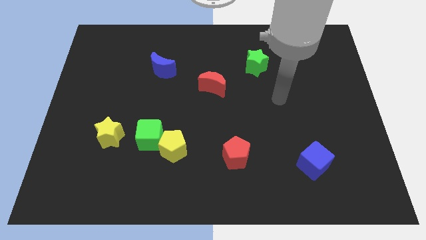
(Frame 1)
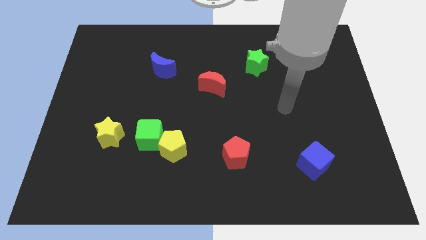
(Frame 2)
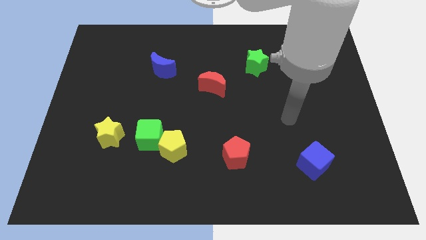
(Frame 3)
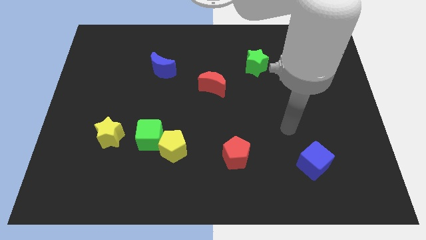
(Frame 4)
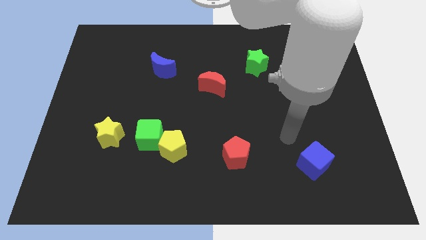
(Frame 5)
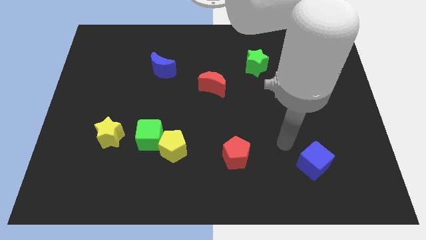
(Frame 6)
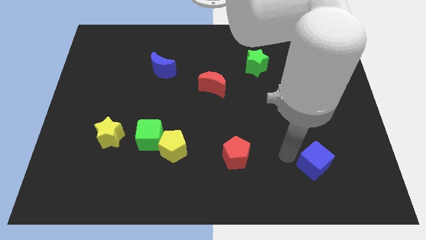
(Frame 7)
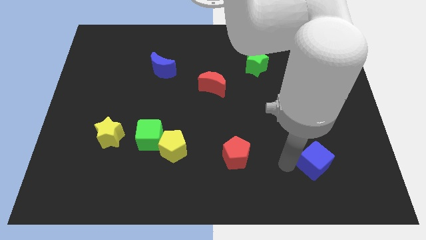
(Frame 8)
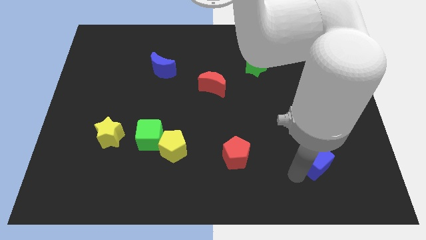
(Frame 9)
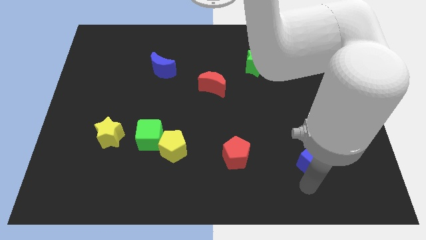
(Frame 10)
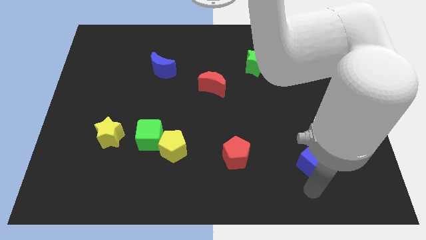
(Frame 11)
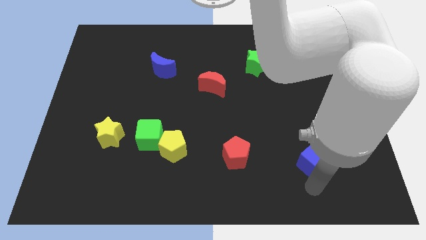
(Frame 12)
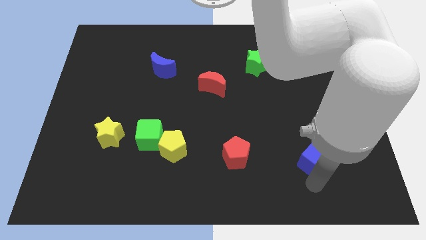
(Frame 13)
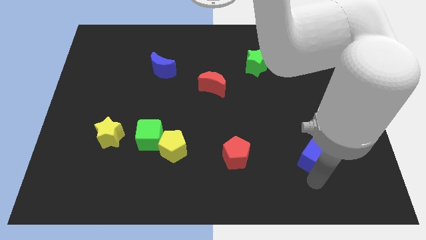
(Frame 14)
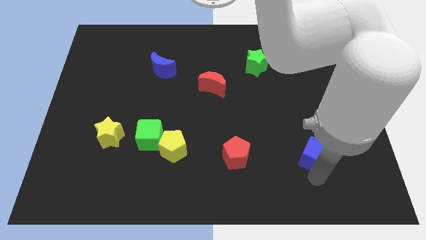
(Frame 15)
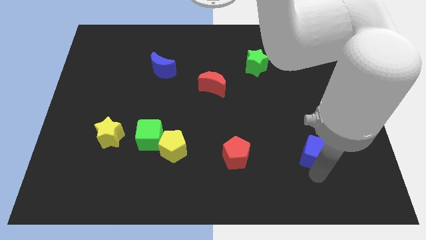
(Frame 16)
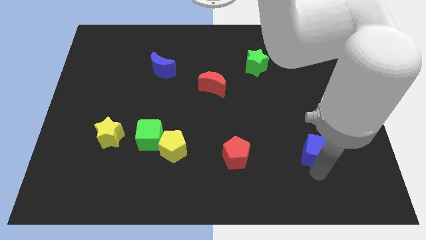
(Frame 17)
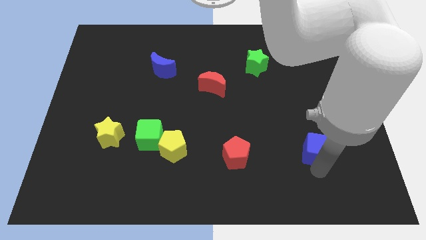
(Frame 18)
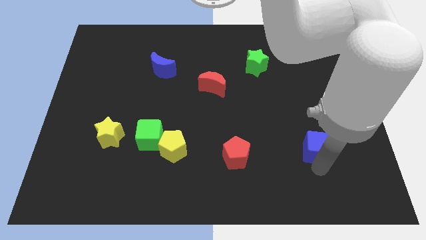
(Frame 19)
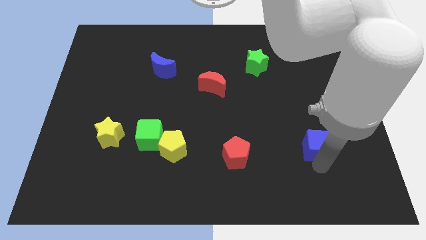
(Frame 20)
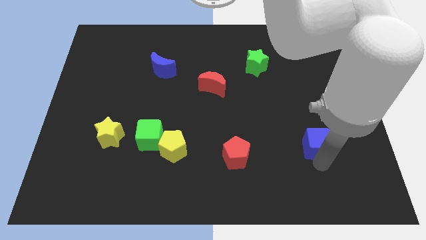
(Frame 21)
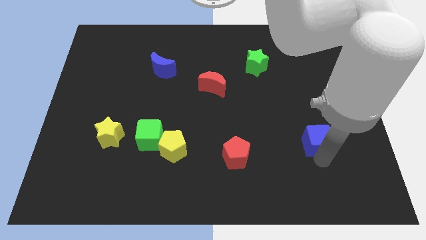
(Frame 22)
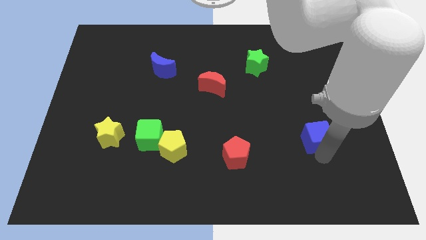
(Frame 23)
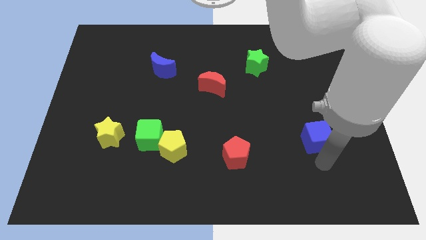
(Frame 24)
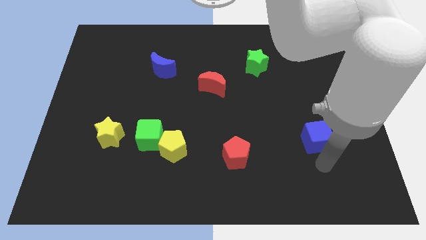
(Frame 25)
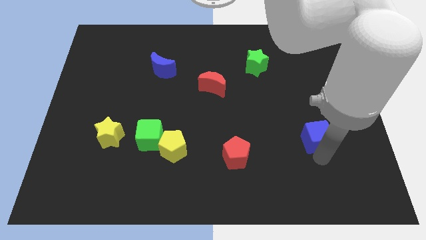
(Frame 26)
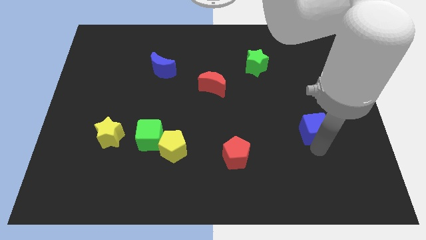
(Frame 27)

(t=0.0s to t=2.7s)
slide the blue cube up slightly

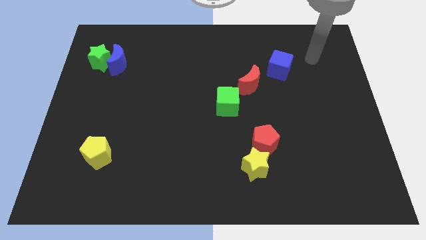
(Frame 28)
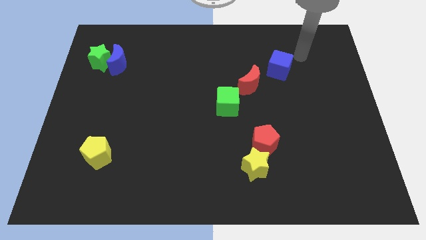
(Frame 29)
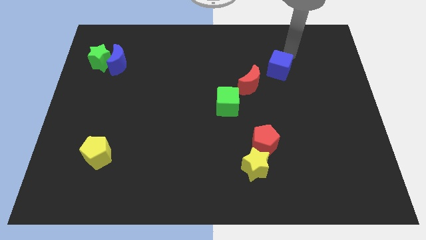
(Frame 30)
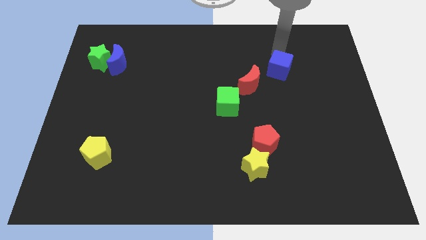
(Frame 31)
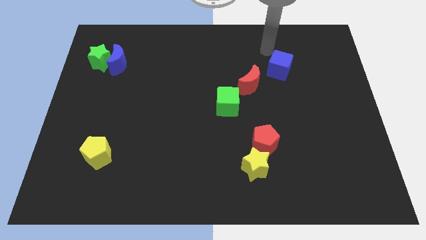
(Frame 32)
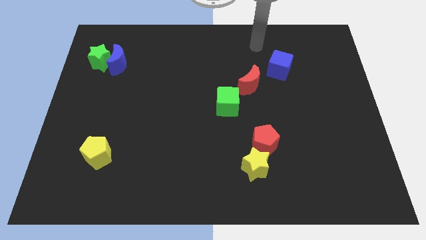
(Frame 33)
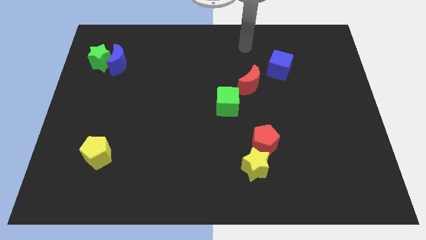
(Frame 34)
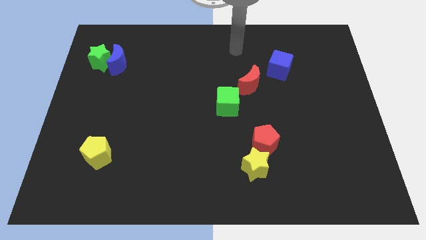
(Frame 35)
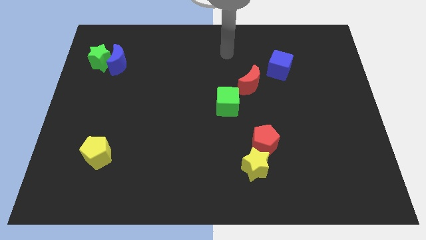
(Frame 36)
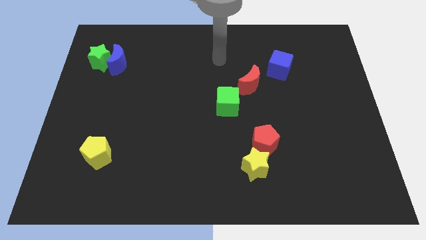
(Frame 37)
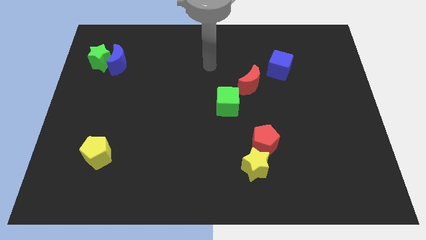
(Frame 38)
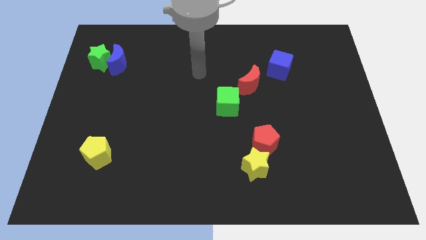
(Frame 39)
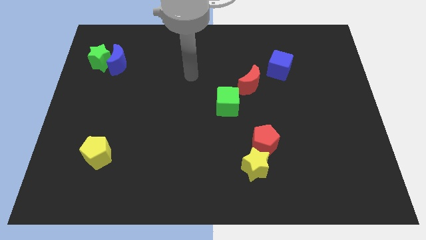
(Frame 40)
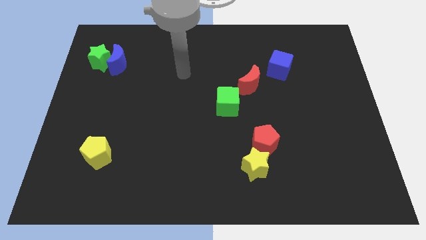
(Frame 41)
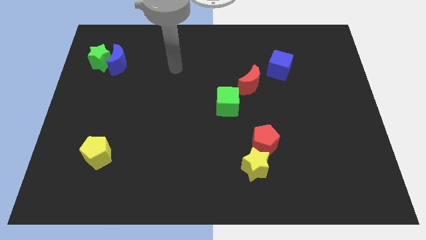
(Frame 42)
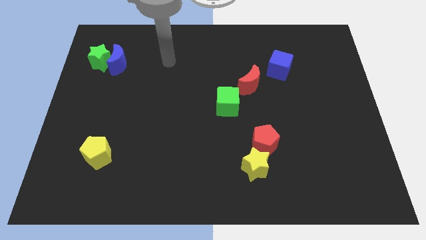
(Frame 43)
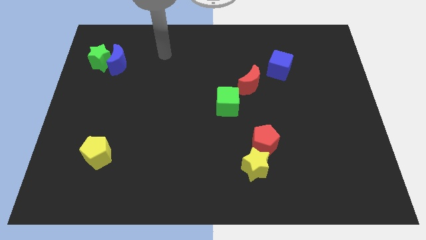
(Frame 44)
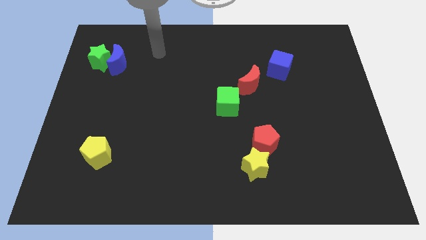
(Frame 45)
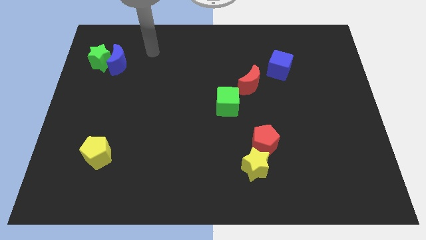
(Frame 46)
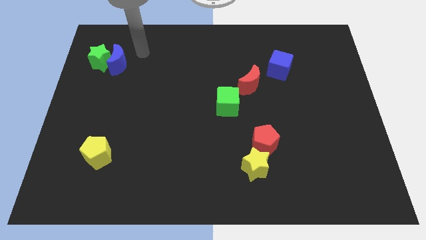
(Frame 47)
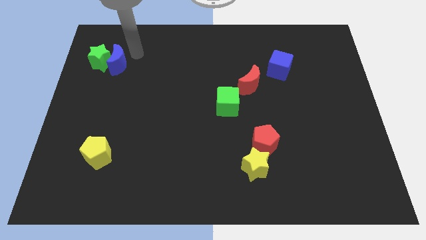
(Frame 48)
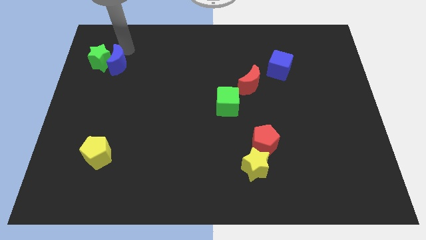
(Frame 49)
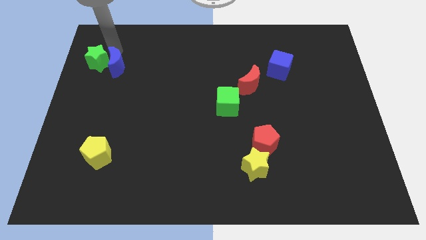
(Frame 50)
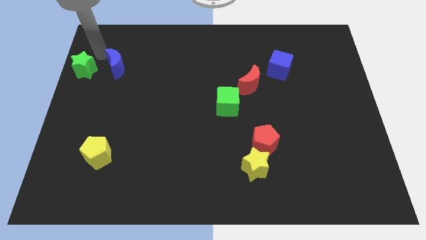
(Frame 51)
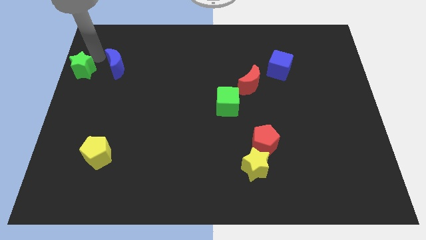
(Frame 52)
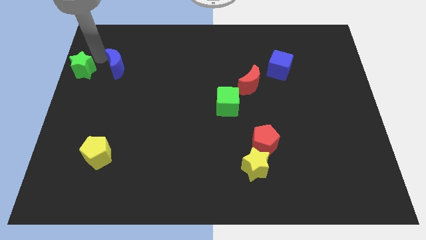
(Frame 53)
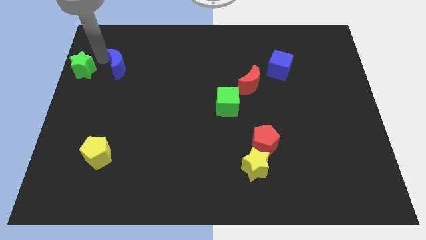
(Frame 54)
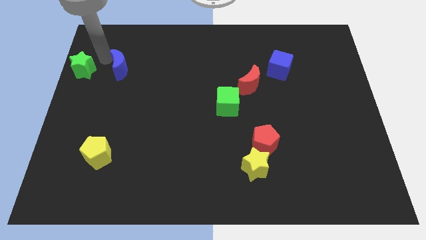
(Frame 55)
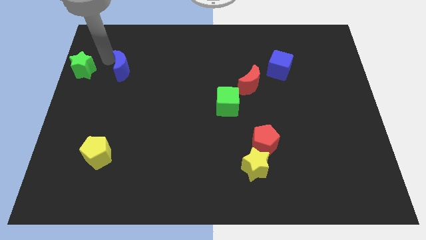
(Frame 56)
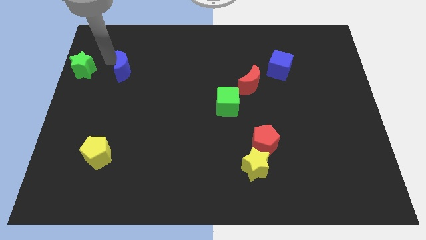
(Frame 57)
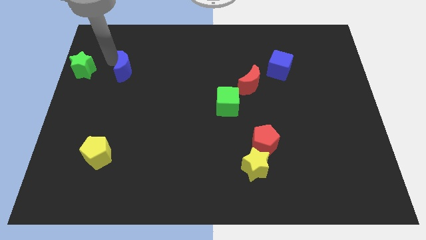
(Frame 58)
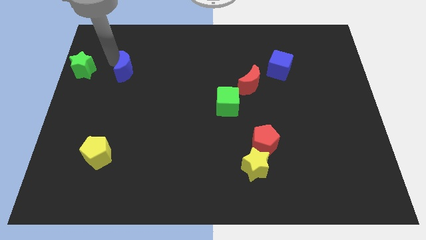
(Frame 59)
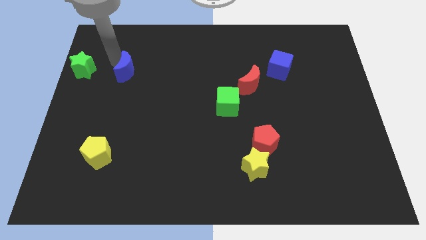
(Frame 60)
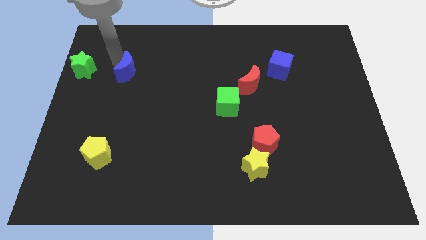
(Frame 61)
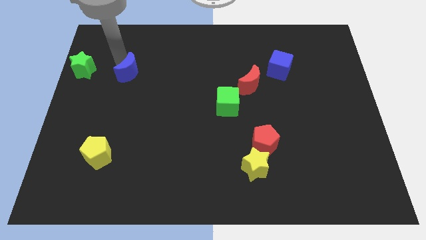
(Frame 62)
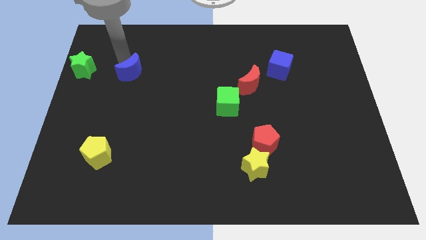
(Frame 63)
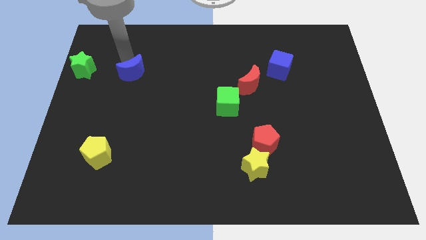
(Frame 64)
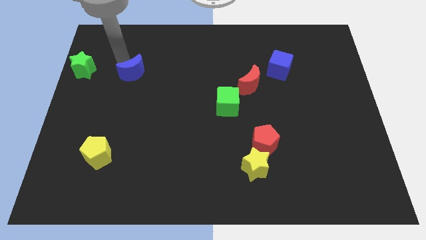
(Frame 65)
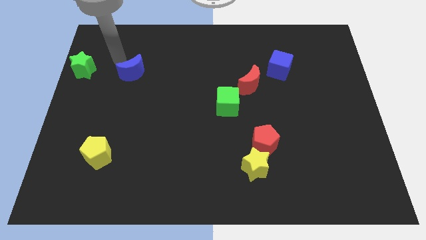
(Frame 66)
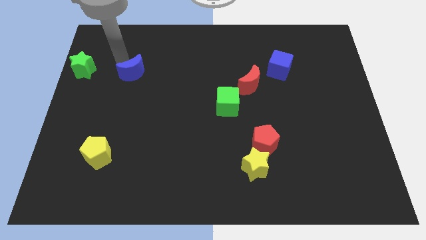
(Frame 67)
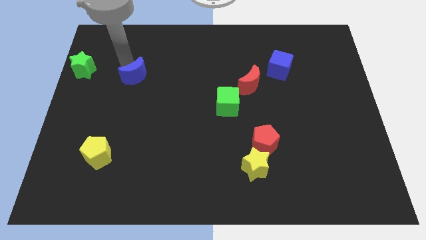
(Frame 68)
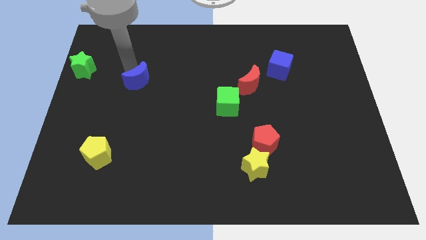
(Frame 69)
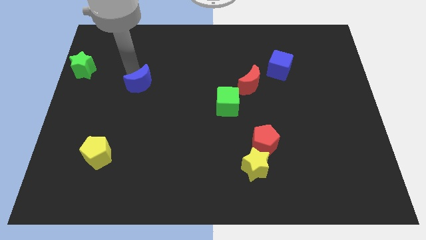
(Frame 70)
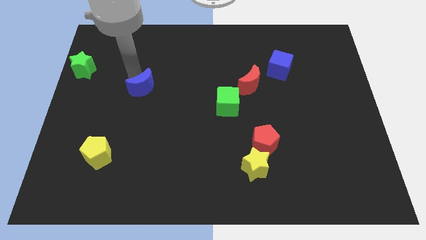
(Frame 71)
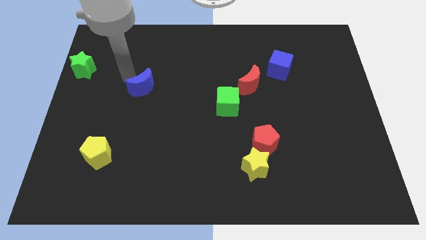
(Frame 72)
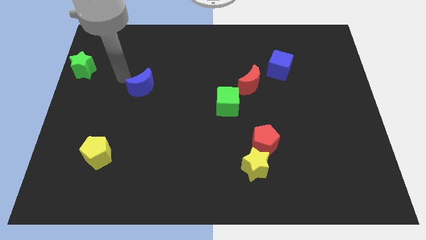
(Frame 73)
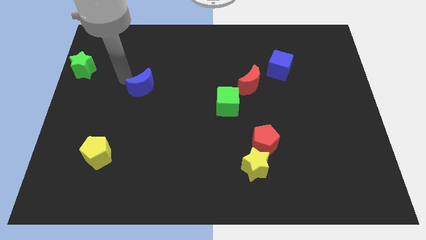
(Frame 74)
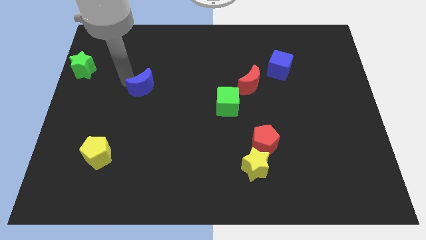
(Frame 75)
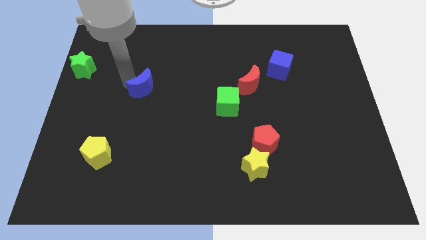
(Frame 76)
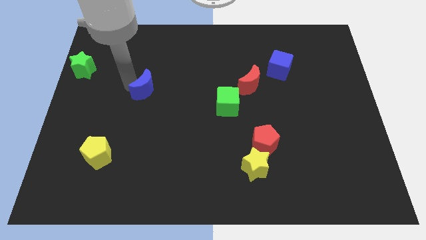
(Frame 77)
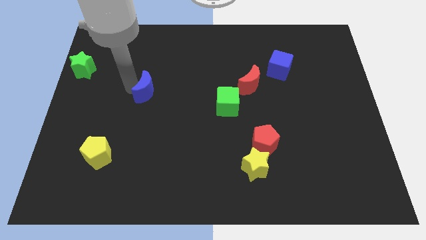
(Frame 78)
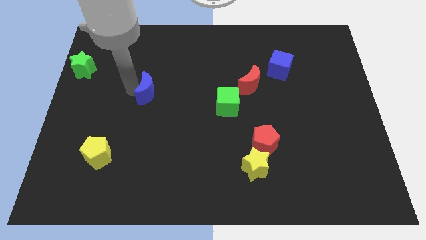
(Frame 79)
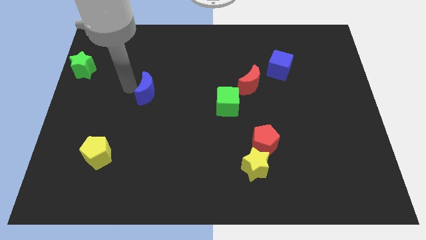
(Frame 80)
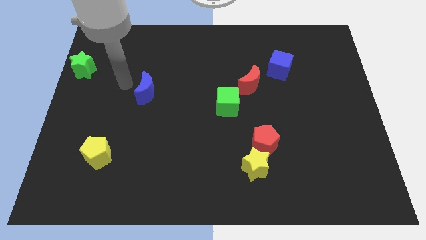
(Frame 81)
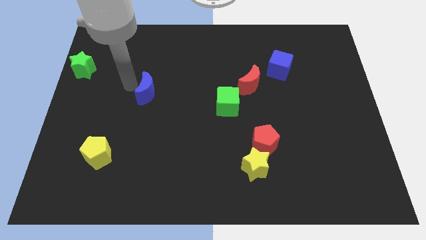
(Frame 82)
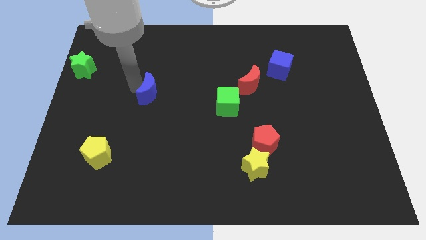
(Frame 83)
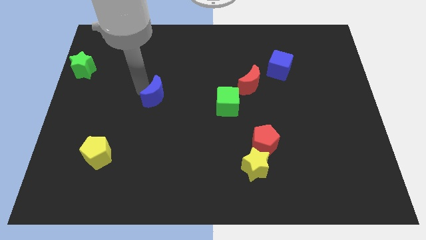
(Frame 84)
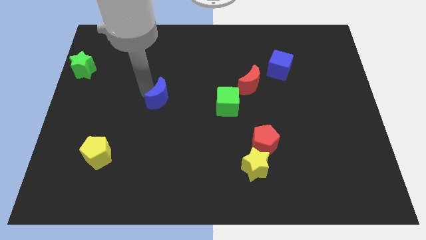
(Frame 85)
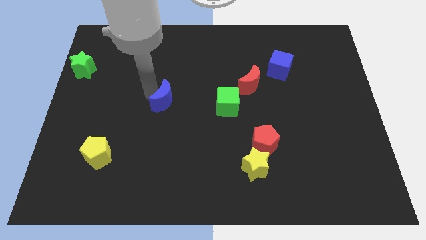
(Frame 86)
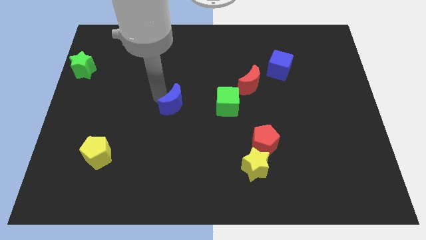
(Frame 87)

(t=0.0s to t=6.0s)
slide the blue moon down and right diagonally
